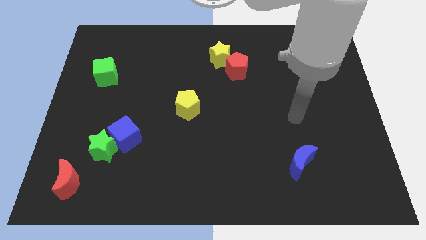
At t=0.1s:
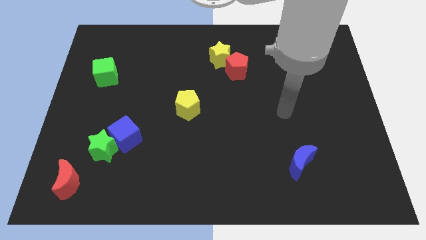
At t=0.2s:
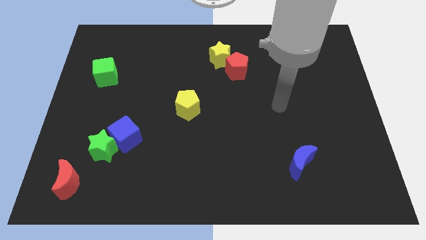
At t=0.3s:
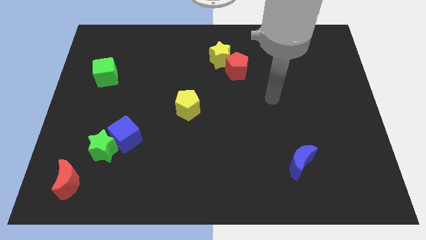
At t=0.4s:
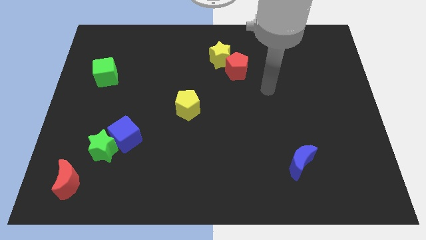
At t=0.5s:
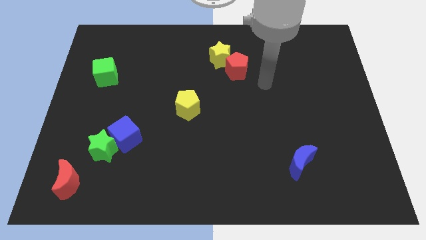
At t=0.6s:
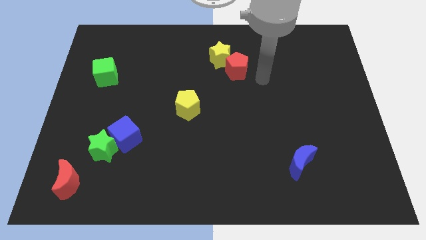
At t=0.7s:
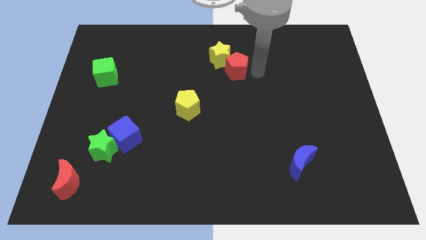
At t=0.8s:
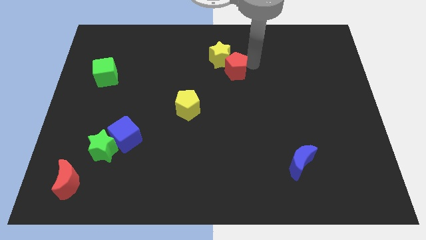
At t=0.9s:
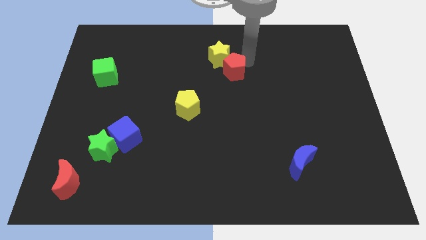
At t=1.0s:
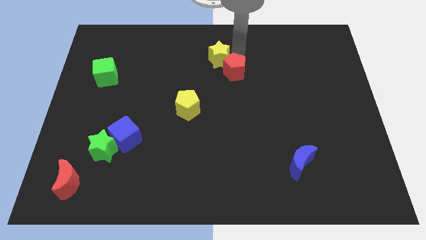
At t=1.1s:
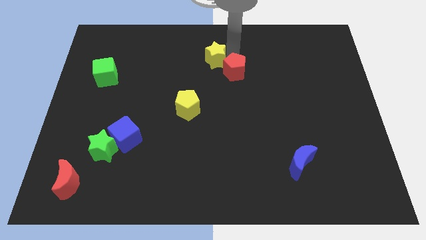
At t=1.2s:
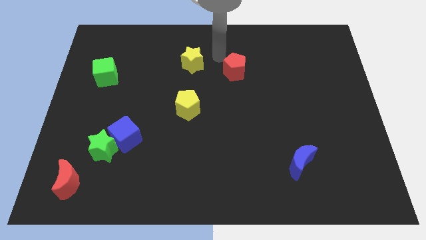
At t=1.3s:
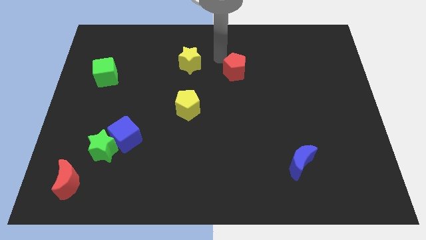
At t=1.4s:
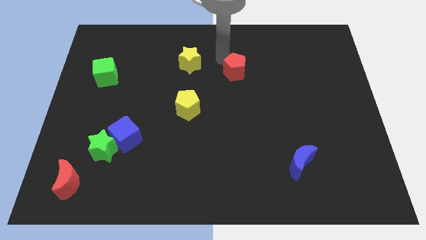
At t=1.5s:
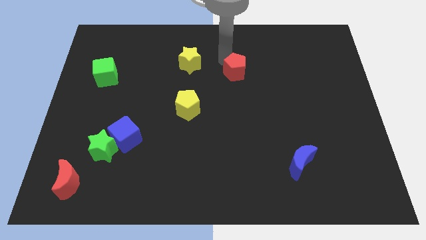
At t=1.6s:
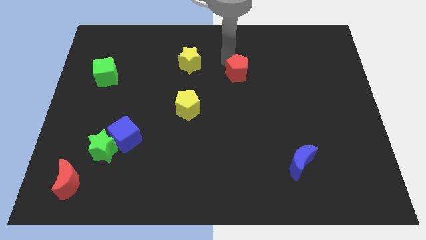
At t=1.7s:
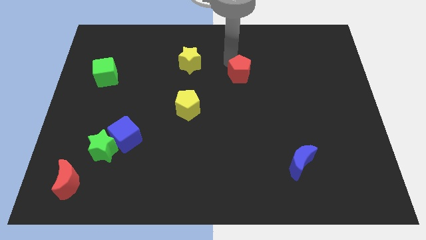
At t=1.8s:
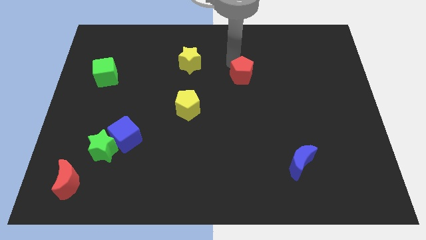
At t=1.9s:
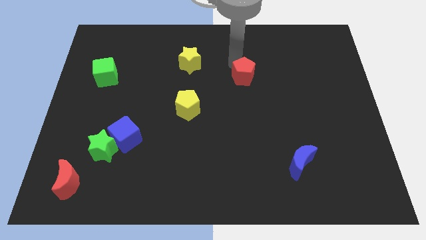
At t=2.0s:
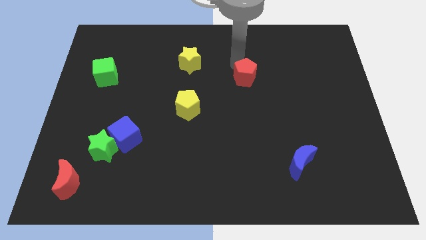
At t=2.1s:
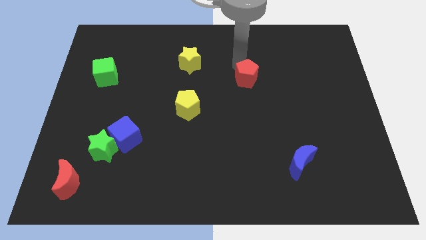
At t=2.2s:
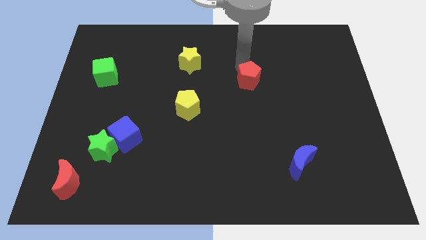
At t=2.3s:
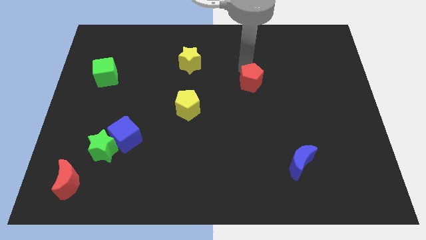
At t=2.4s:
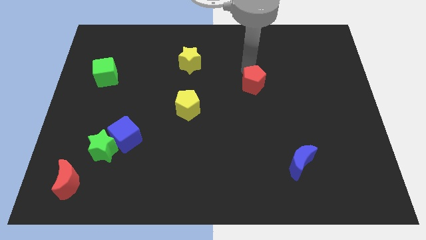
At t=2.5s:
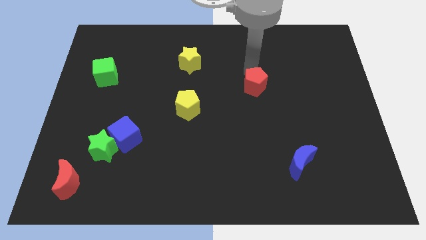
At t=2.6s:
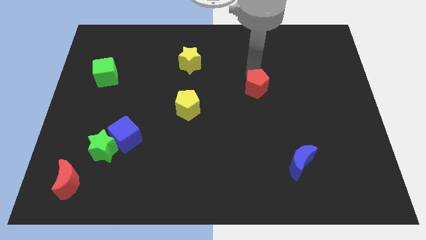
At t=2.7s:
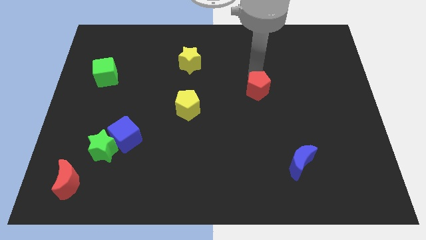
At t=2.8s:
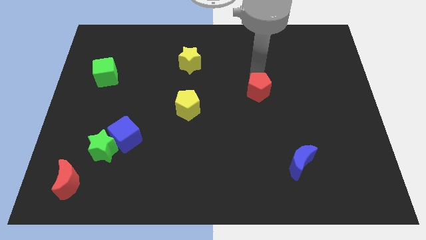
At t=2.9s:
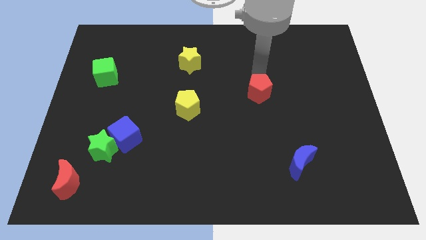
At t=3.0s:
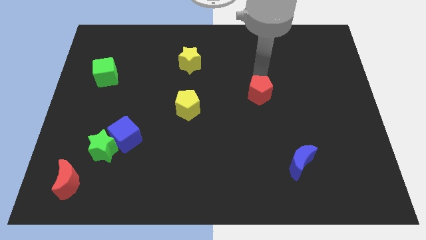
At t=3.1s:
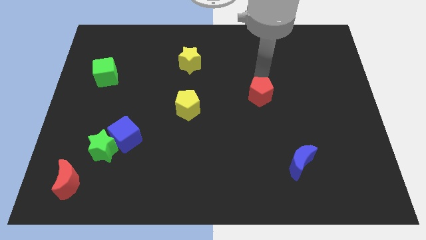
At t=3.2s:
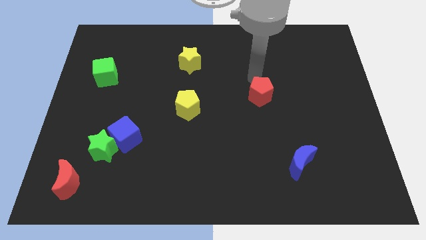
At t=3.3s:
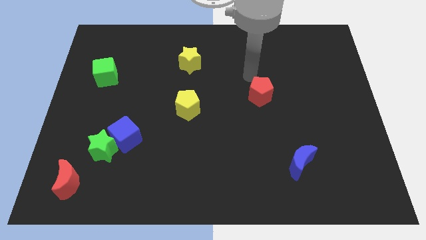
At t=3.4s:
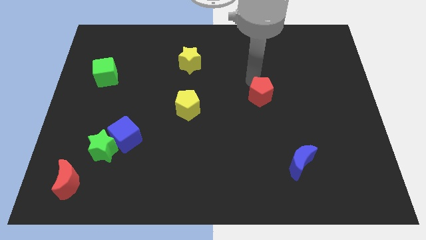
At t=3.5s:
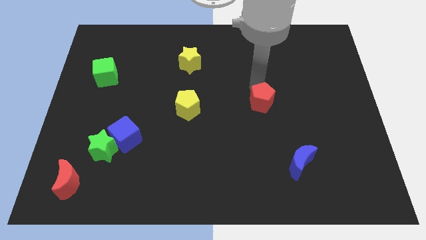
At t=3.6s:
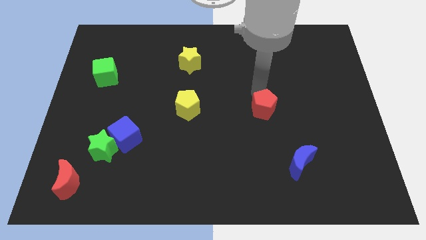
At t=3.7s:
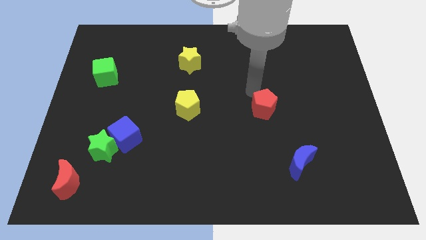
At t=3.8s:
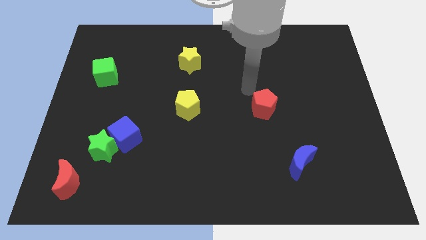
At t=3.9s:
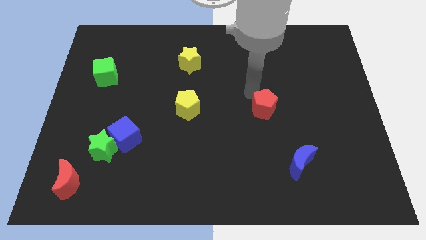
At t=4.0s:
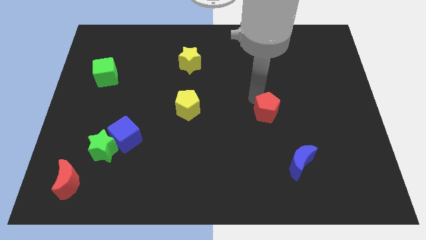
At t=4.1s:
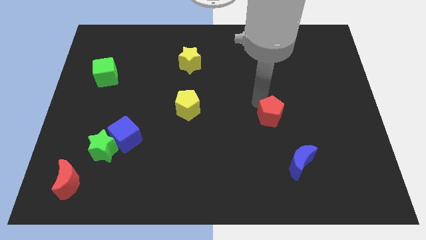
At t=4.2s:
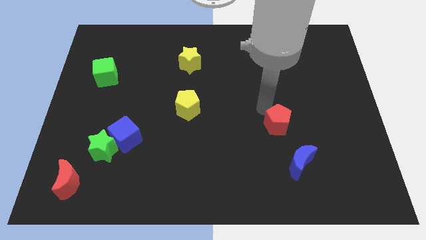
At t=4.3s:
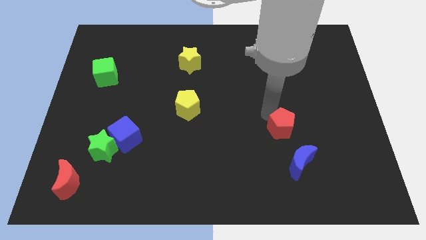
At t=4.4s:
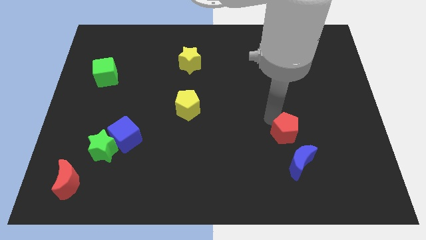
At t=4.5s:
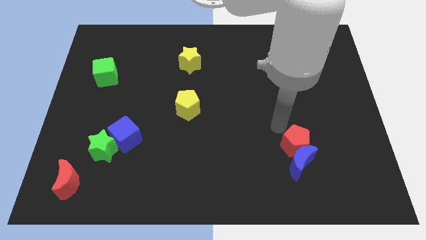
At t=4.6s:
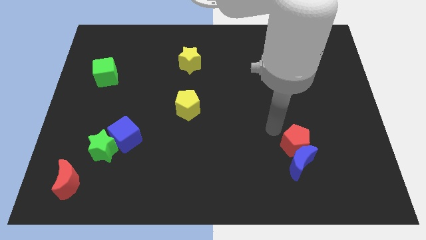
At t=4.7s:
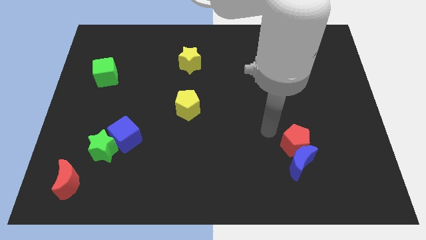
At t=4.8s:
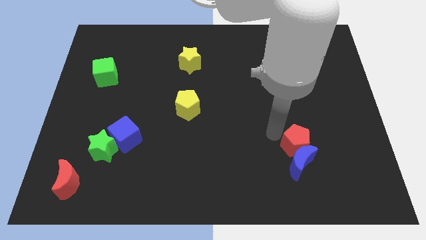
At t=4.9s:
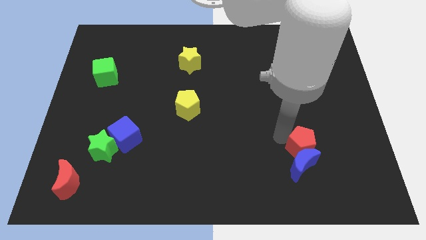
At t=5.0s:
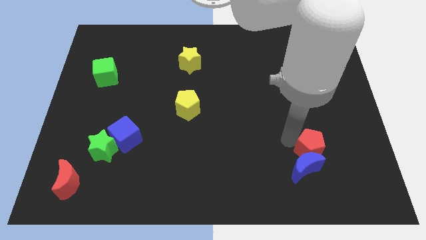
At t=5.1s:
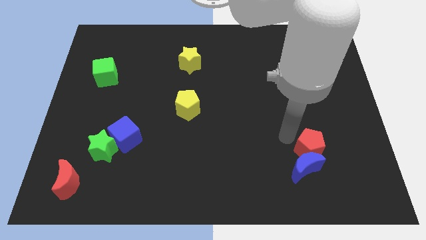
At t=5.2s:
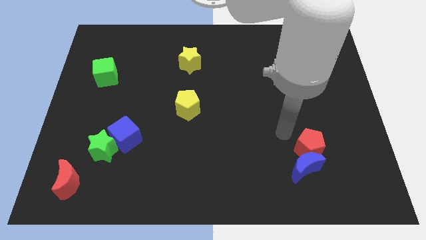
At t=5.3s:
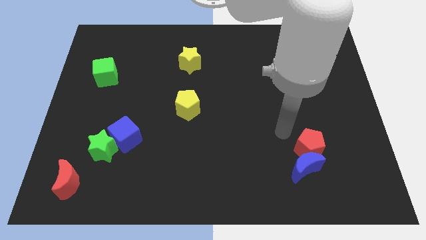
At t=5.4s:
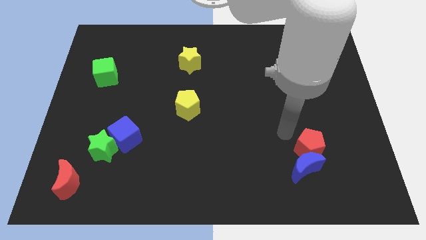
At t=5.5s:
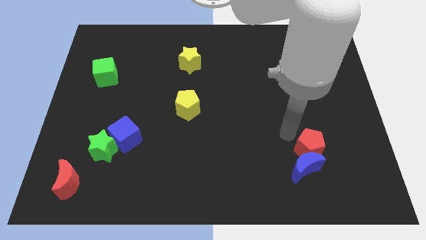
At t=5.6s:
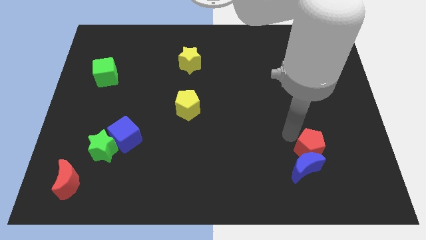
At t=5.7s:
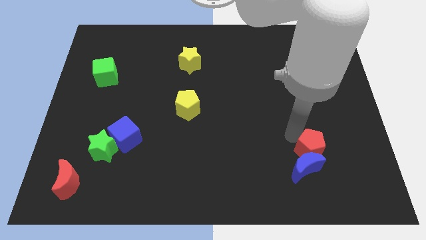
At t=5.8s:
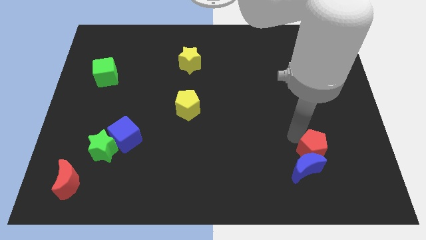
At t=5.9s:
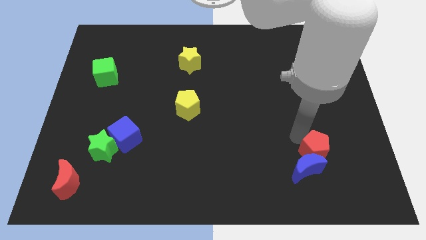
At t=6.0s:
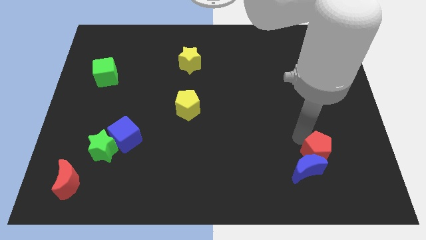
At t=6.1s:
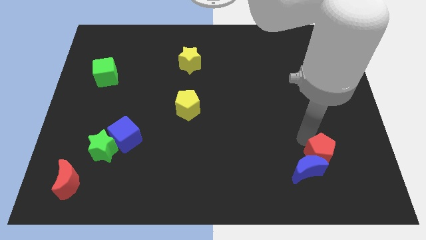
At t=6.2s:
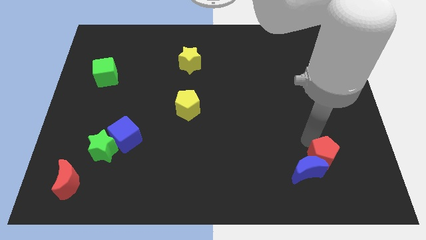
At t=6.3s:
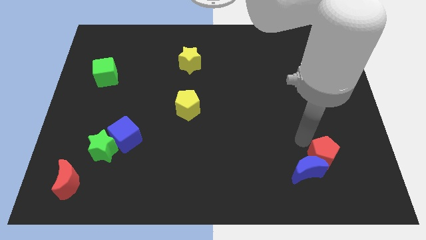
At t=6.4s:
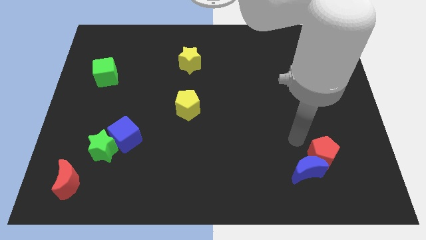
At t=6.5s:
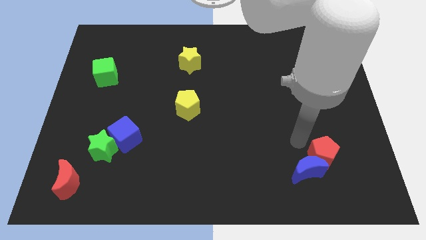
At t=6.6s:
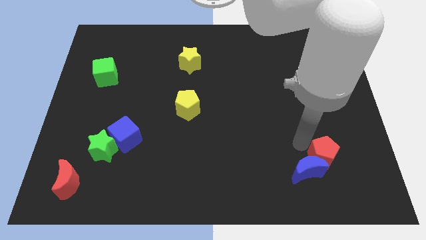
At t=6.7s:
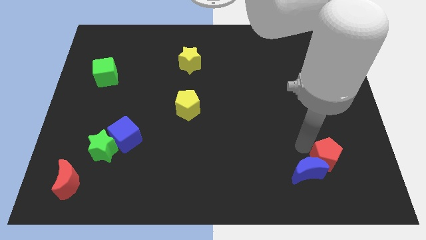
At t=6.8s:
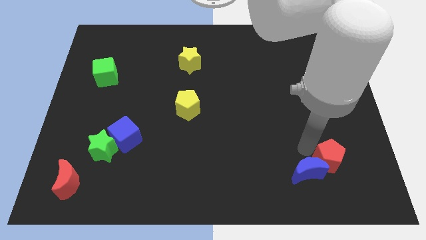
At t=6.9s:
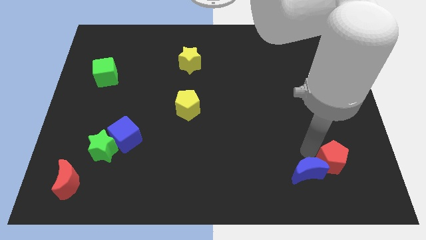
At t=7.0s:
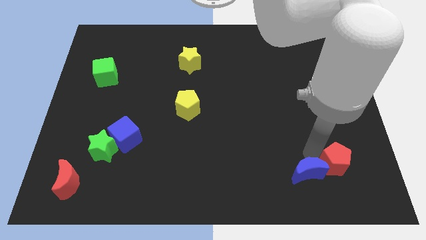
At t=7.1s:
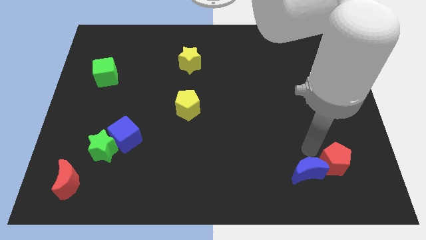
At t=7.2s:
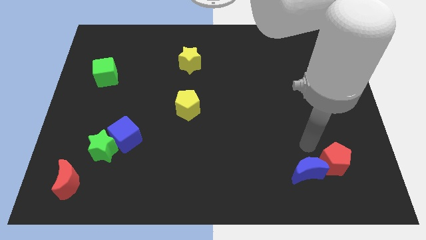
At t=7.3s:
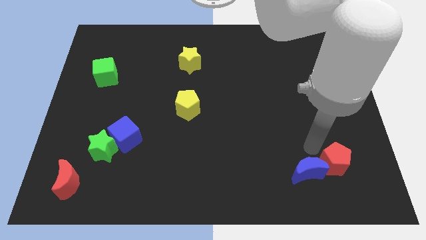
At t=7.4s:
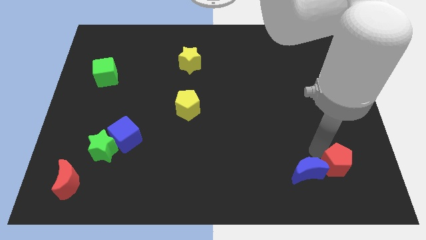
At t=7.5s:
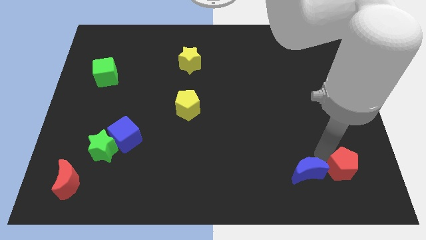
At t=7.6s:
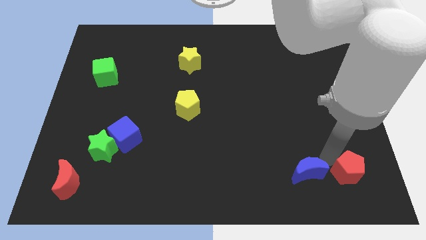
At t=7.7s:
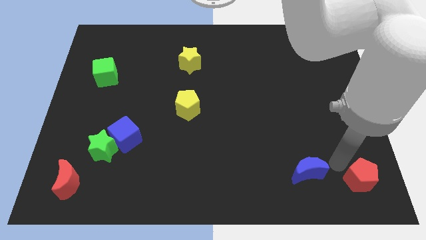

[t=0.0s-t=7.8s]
put the red pentagon to the bottom right
